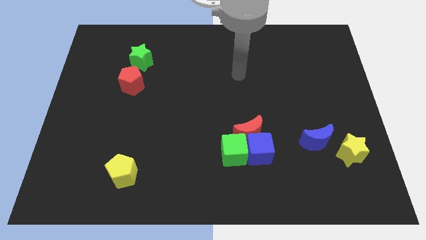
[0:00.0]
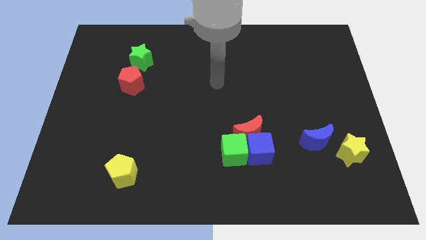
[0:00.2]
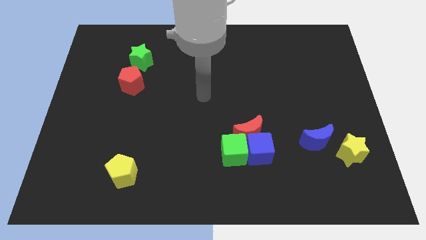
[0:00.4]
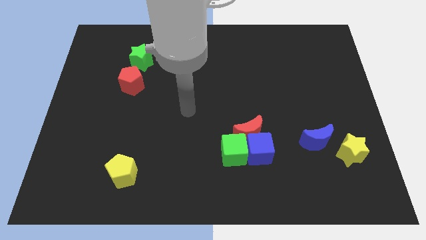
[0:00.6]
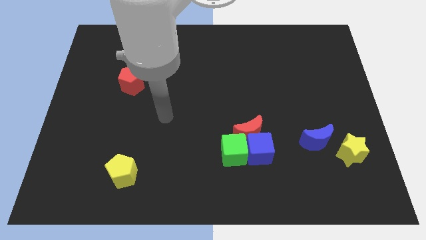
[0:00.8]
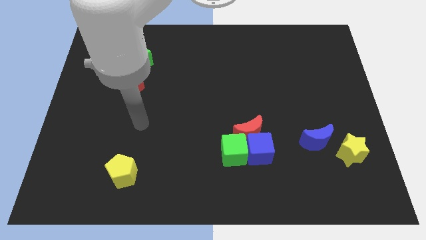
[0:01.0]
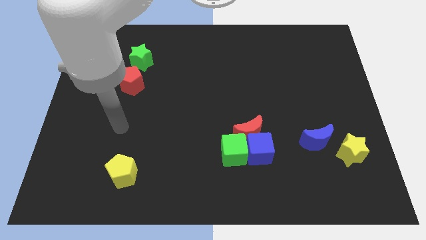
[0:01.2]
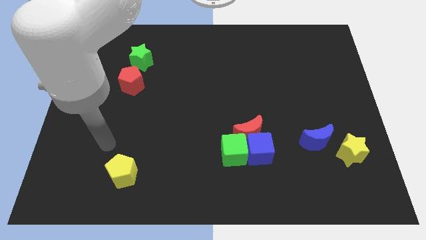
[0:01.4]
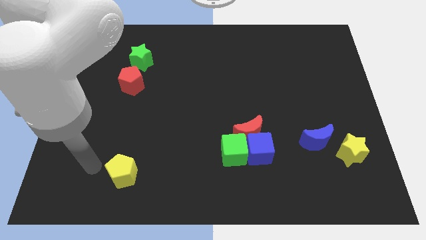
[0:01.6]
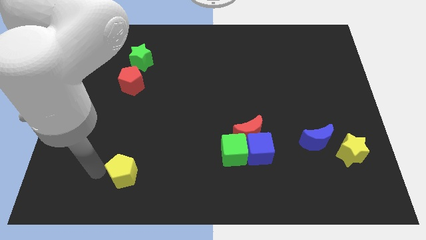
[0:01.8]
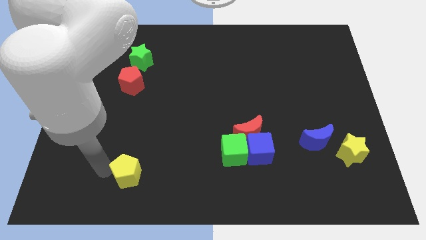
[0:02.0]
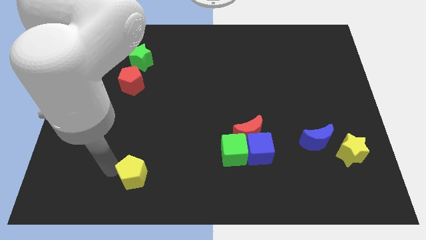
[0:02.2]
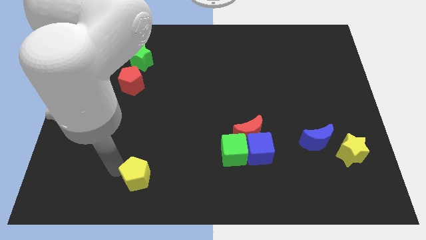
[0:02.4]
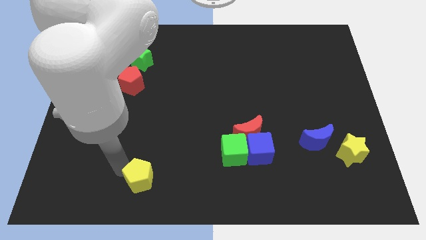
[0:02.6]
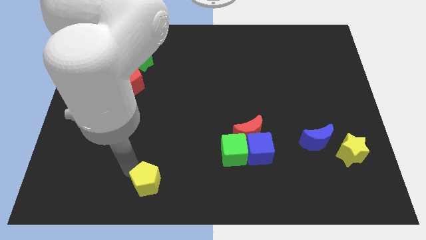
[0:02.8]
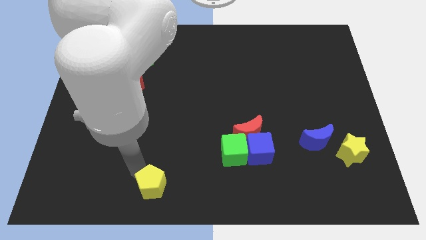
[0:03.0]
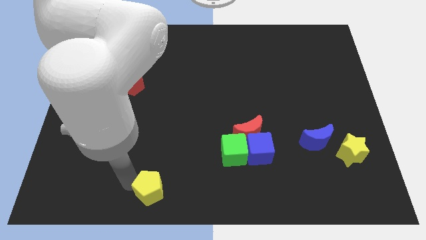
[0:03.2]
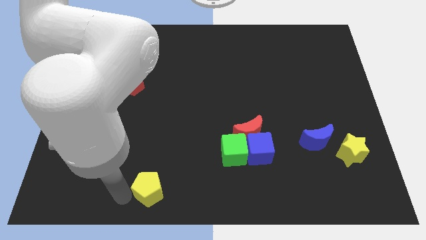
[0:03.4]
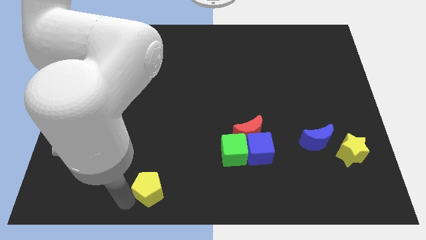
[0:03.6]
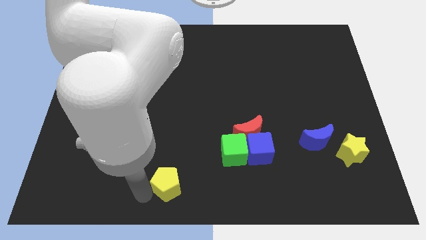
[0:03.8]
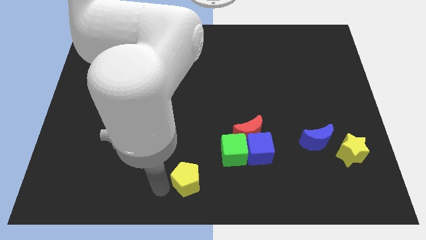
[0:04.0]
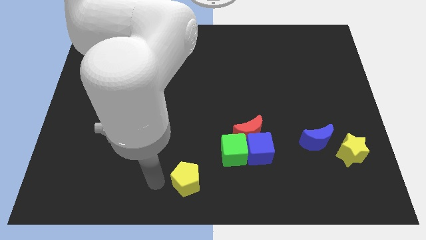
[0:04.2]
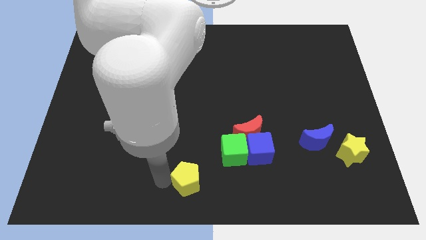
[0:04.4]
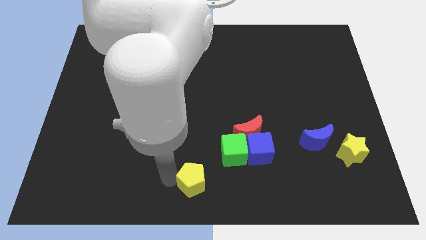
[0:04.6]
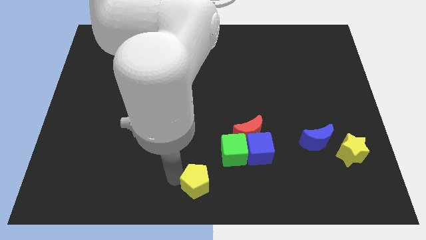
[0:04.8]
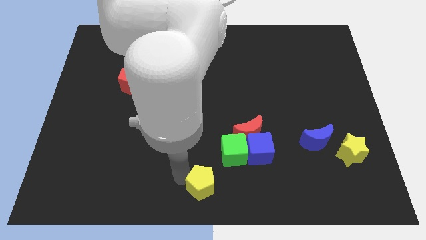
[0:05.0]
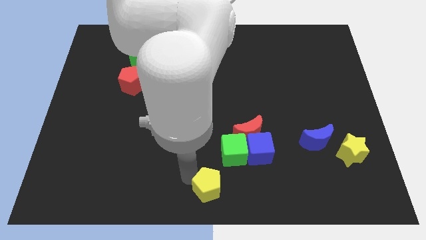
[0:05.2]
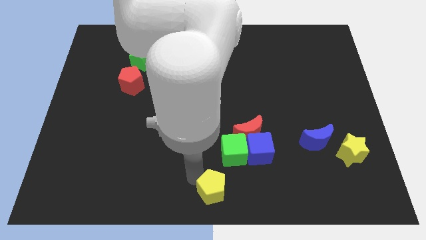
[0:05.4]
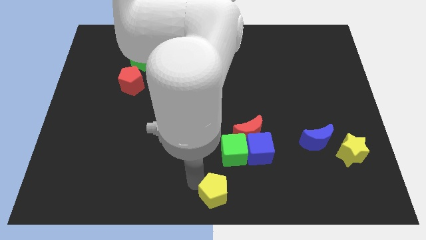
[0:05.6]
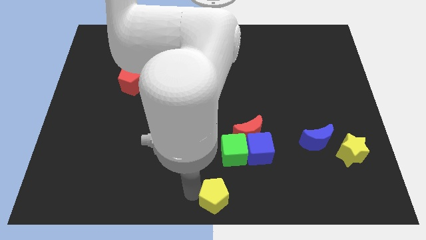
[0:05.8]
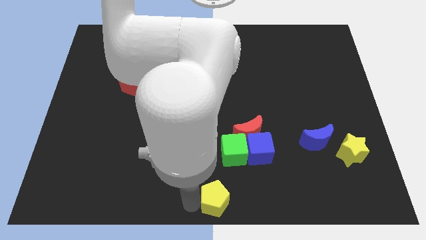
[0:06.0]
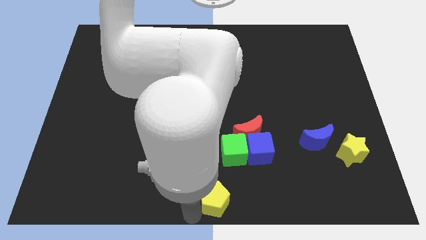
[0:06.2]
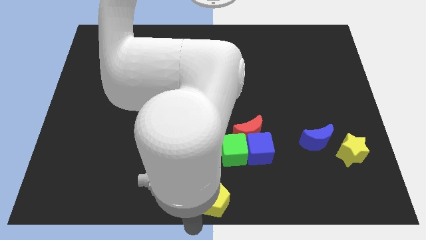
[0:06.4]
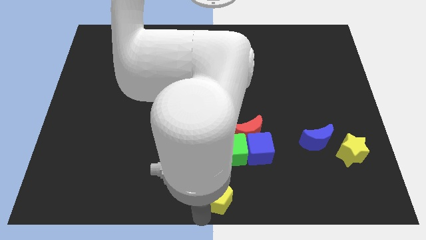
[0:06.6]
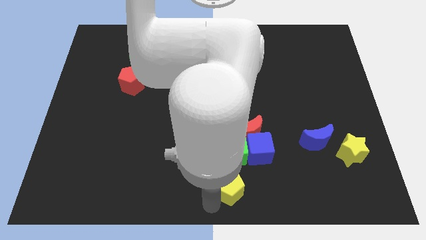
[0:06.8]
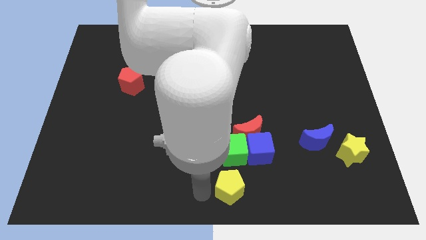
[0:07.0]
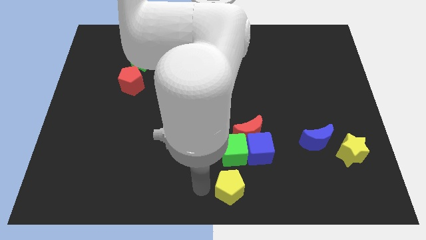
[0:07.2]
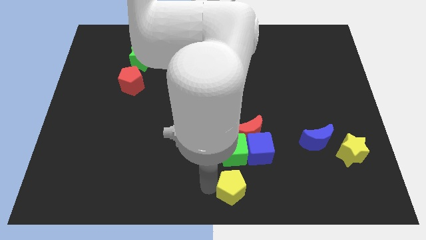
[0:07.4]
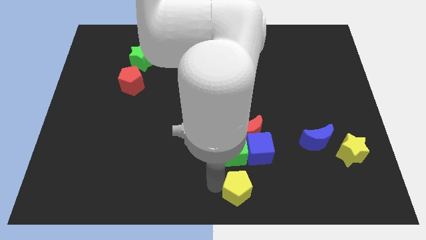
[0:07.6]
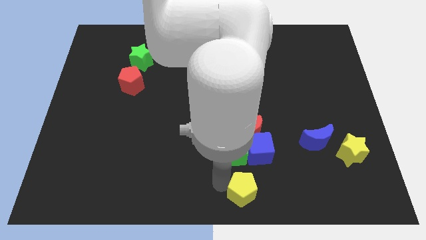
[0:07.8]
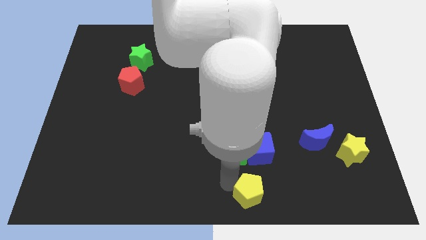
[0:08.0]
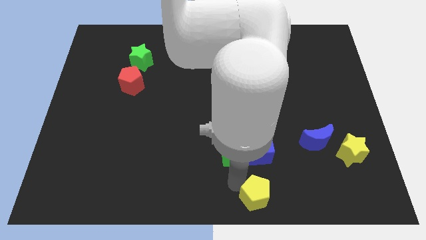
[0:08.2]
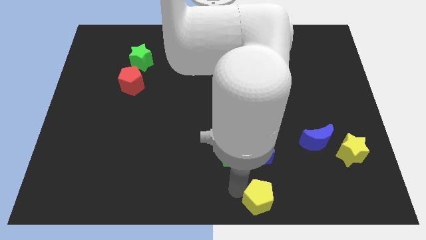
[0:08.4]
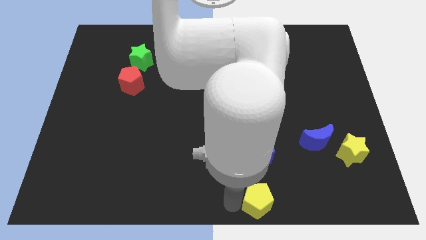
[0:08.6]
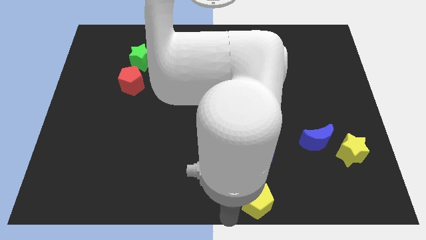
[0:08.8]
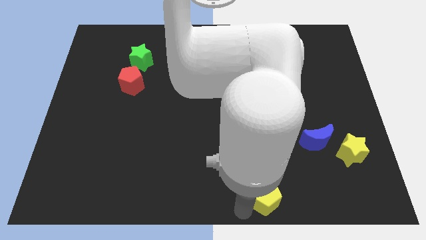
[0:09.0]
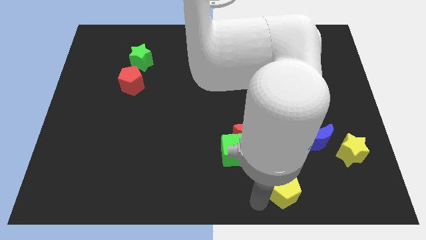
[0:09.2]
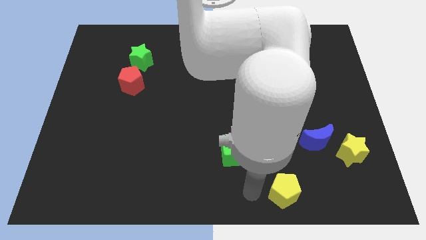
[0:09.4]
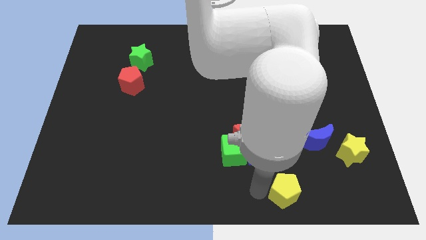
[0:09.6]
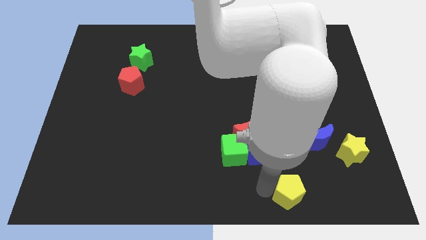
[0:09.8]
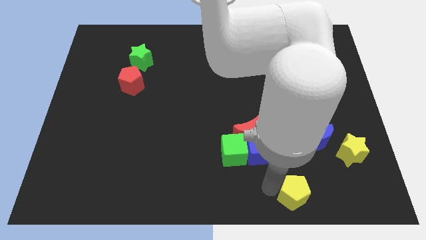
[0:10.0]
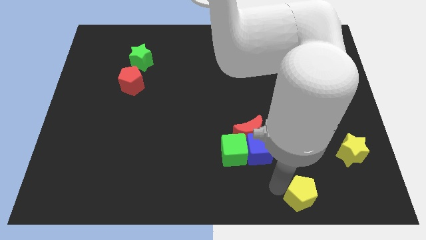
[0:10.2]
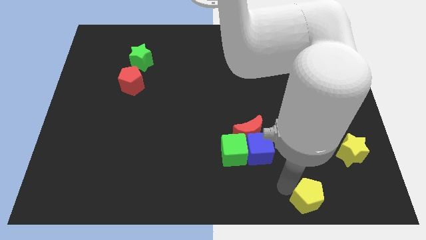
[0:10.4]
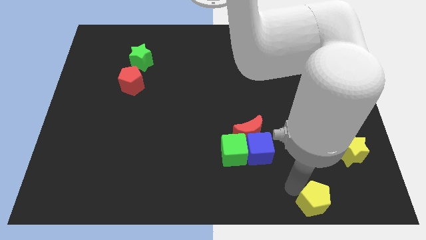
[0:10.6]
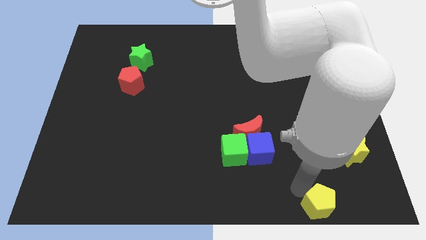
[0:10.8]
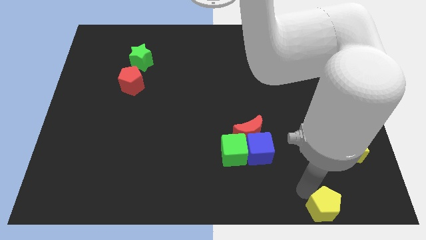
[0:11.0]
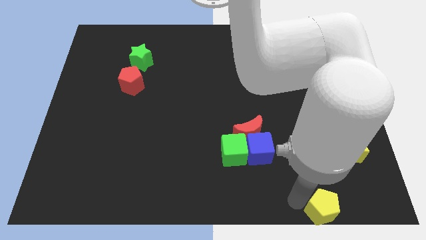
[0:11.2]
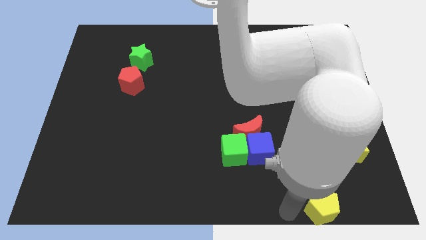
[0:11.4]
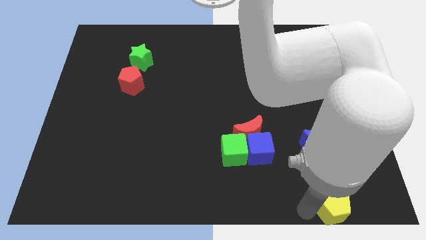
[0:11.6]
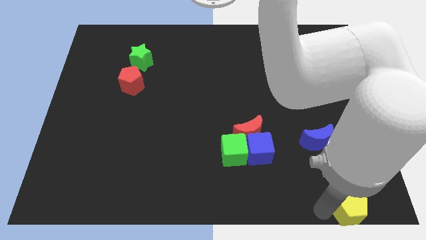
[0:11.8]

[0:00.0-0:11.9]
slide the yellow pentagon to the bottom right of the board

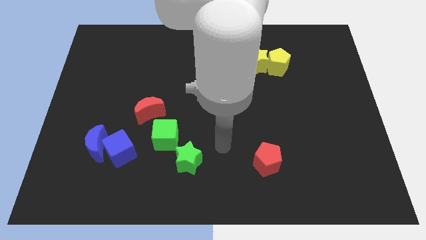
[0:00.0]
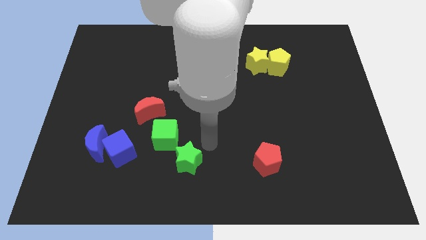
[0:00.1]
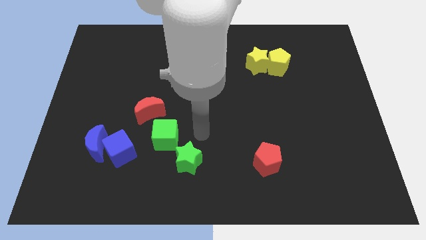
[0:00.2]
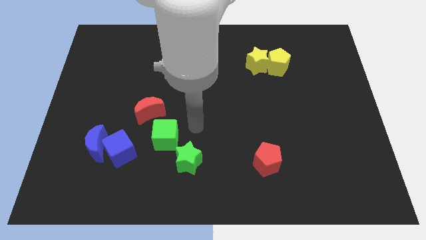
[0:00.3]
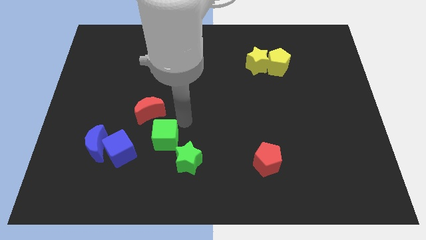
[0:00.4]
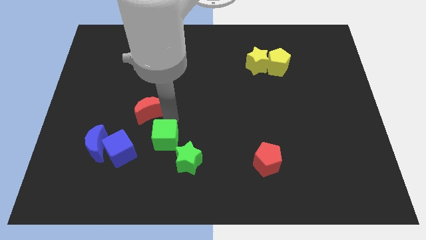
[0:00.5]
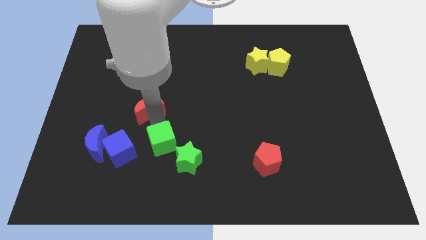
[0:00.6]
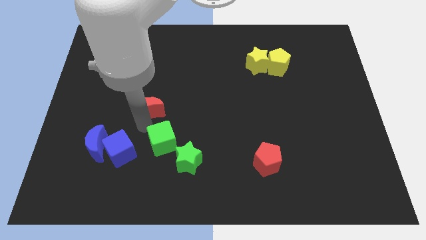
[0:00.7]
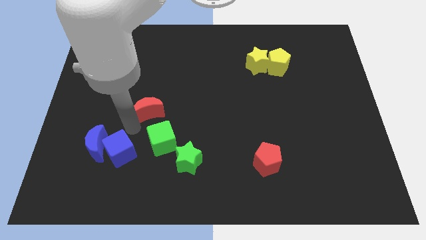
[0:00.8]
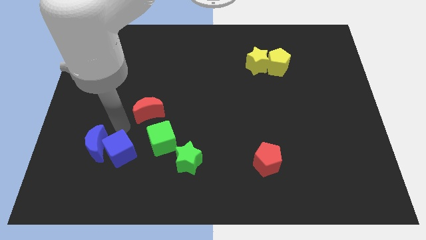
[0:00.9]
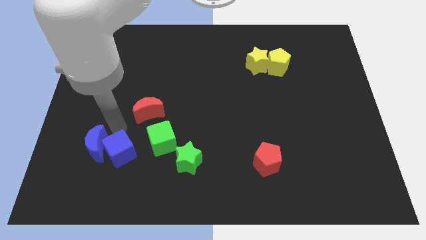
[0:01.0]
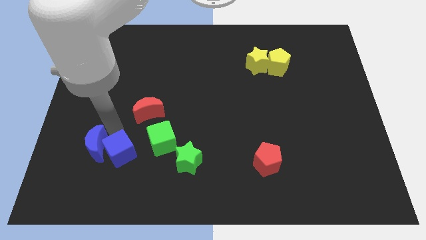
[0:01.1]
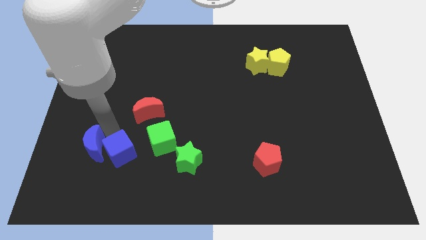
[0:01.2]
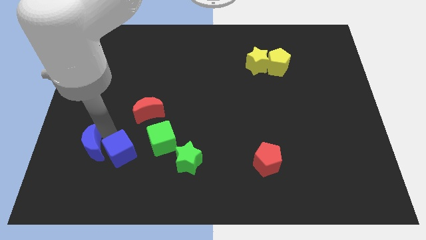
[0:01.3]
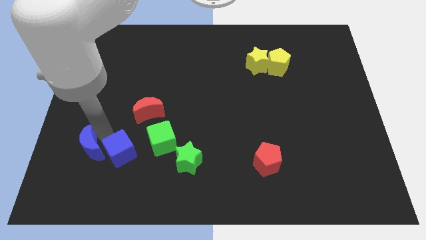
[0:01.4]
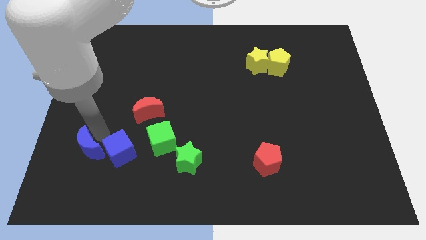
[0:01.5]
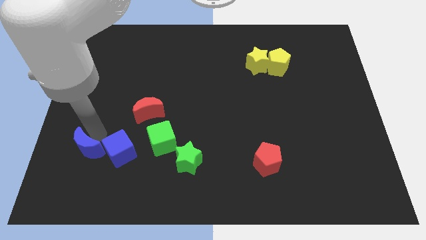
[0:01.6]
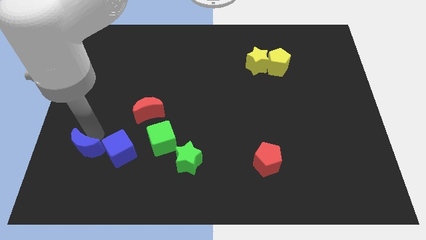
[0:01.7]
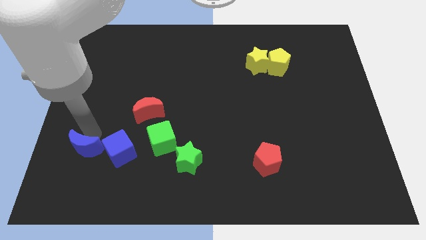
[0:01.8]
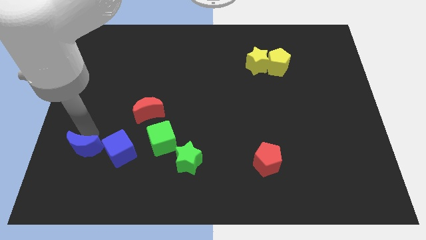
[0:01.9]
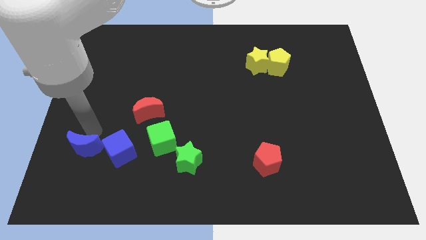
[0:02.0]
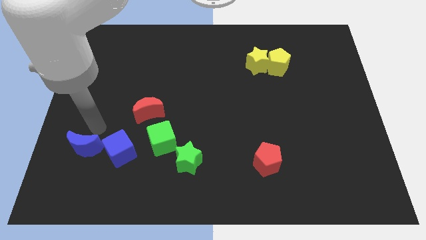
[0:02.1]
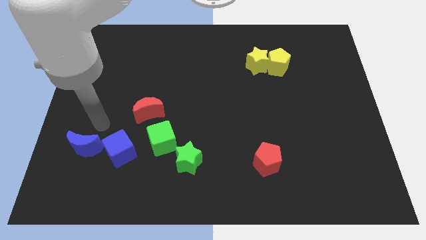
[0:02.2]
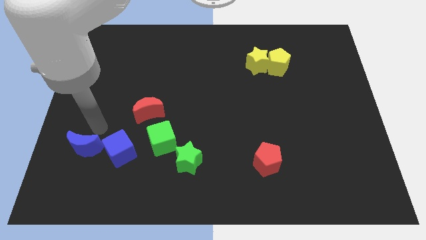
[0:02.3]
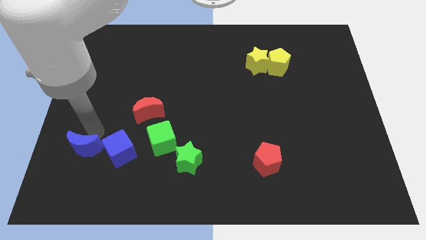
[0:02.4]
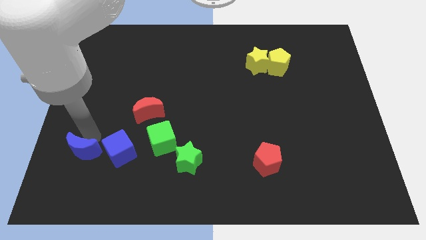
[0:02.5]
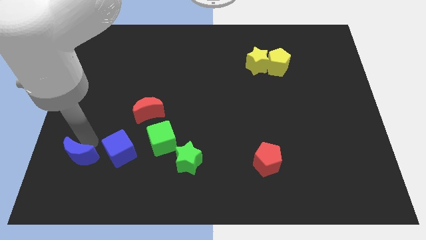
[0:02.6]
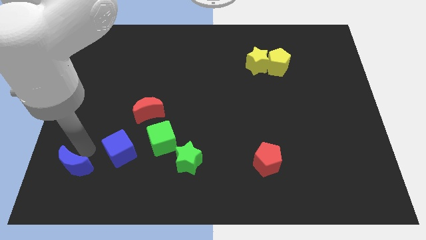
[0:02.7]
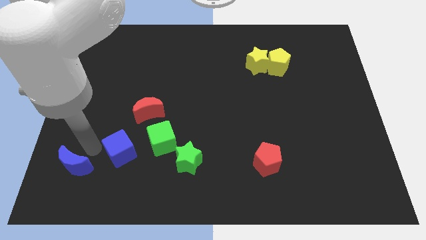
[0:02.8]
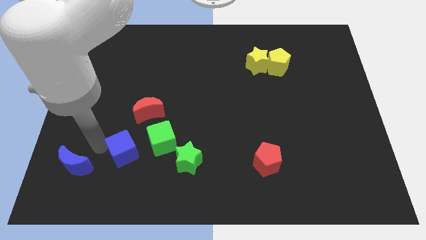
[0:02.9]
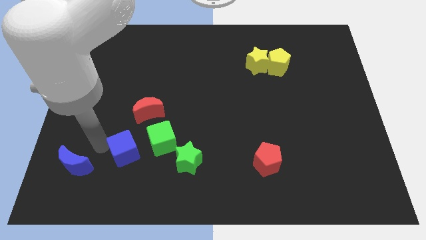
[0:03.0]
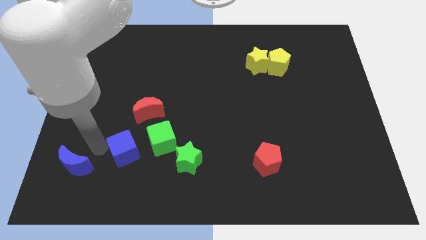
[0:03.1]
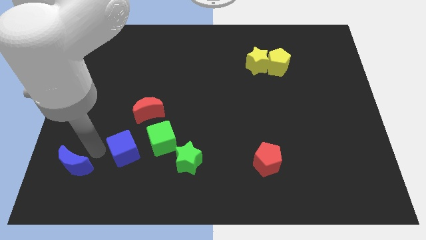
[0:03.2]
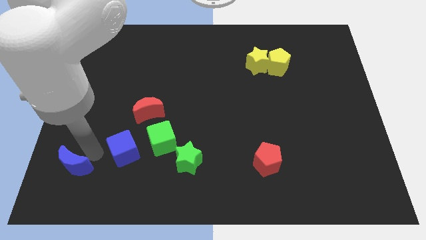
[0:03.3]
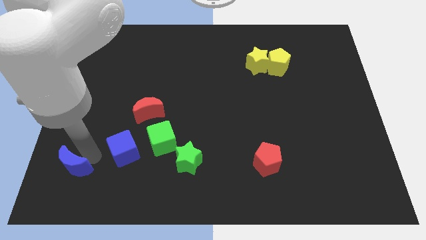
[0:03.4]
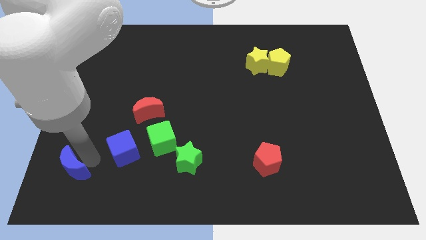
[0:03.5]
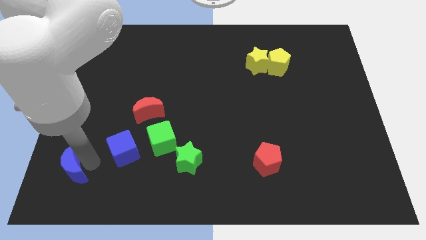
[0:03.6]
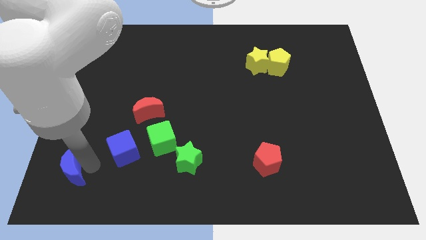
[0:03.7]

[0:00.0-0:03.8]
put the blue moon to the bottom left of the board
